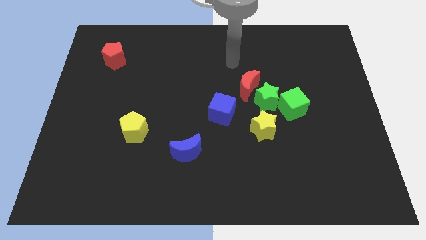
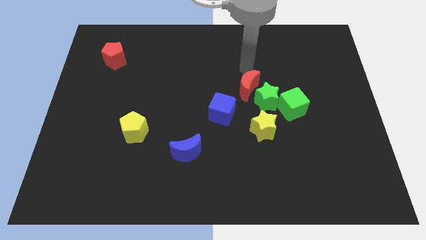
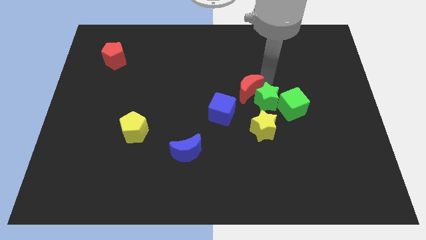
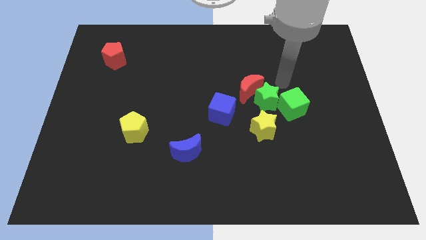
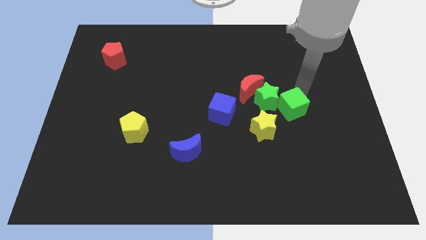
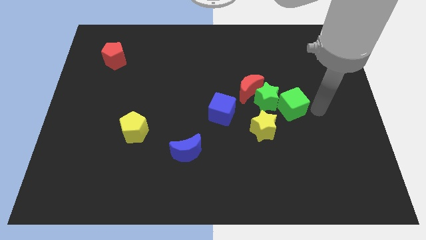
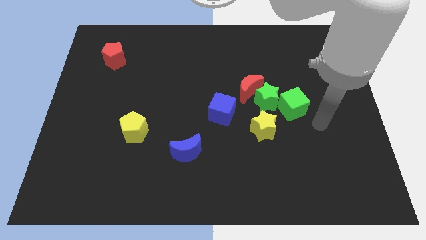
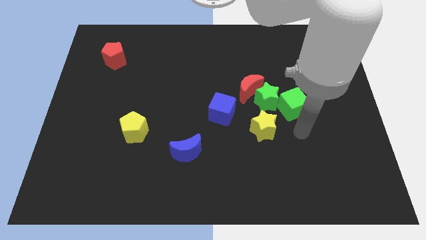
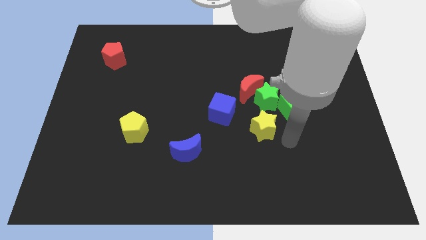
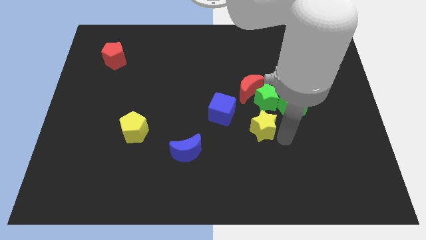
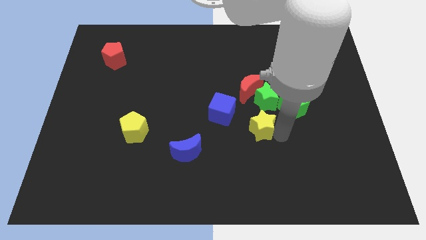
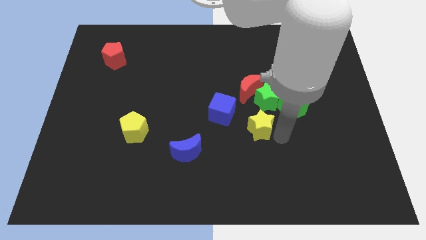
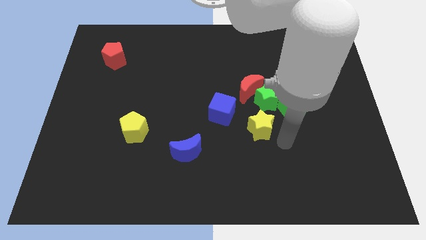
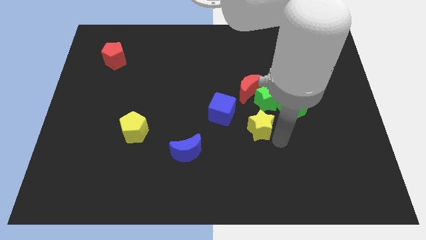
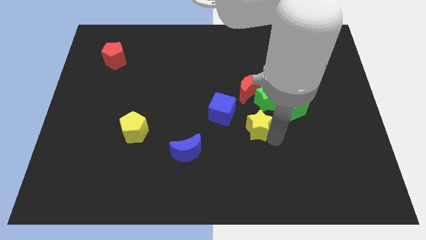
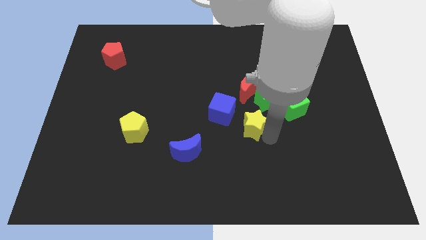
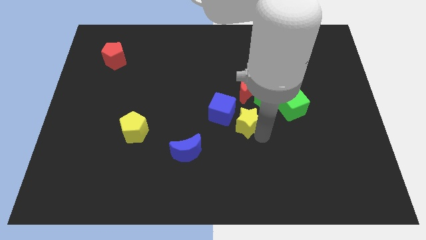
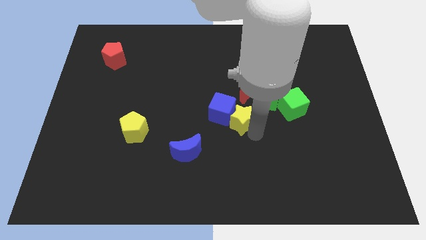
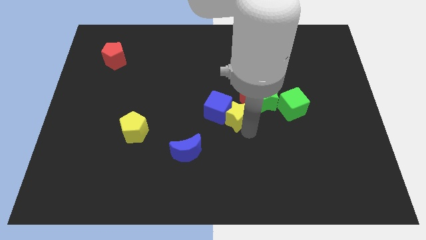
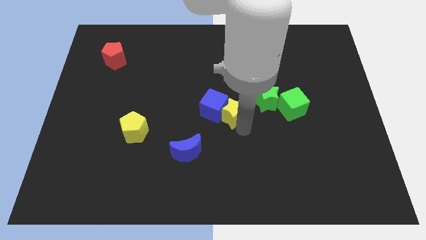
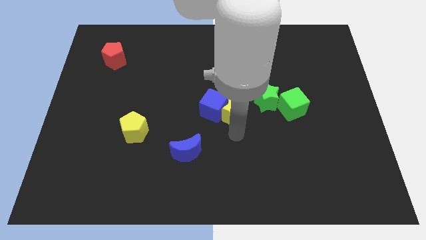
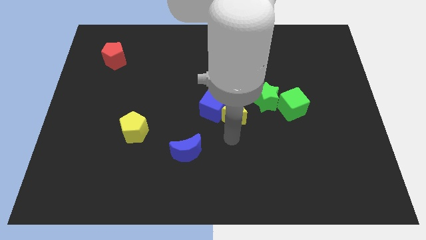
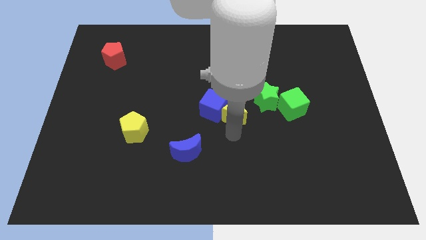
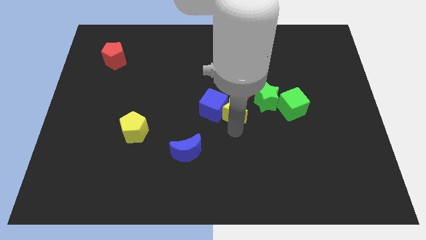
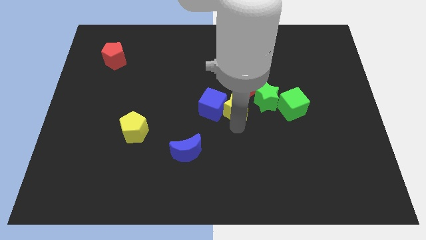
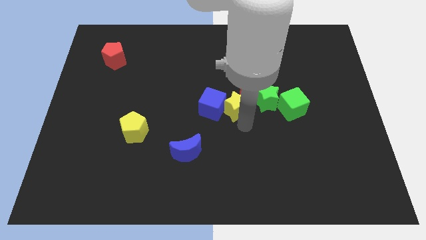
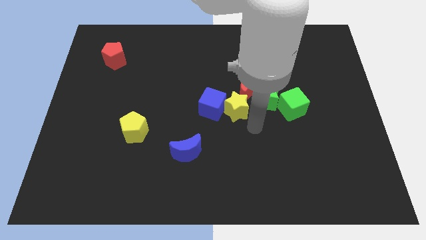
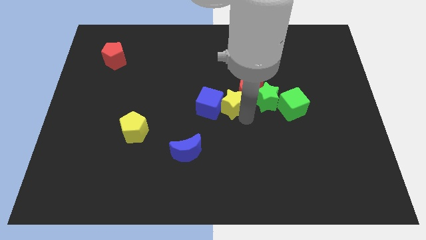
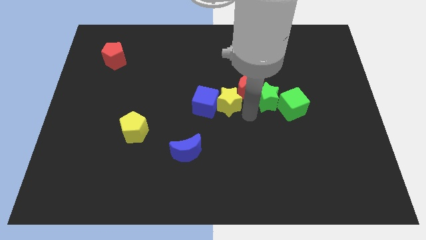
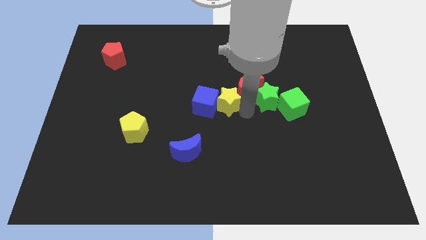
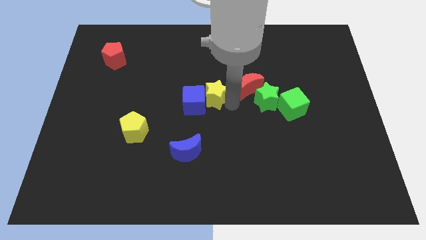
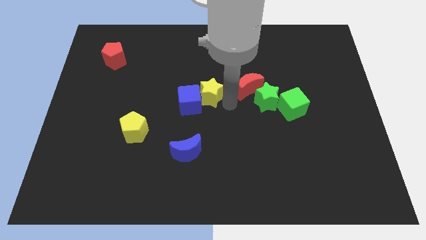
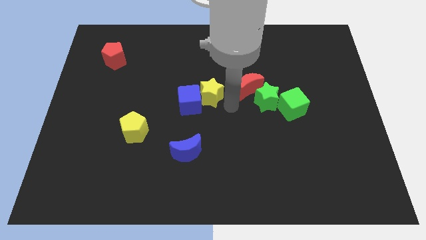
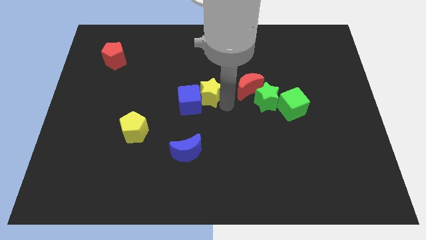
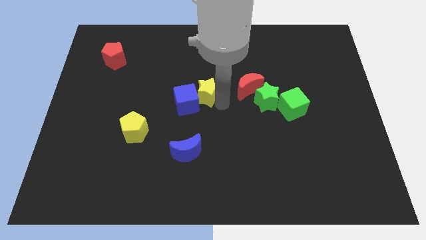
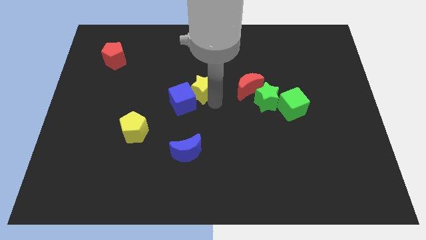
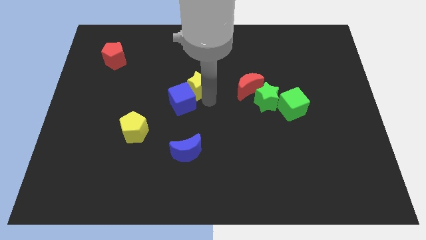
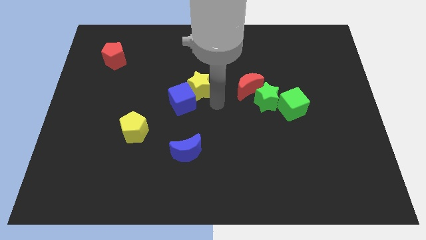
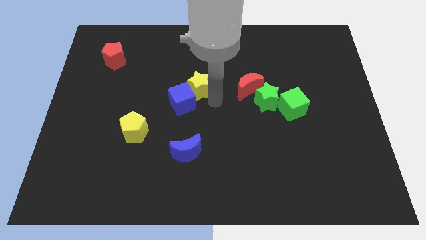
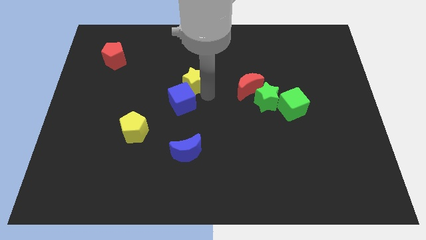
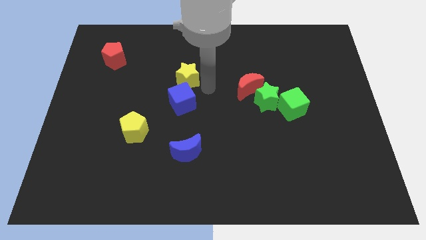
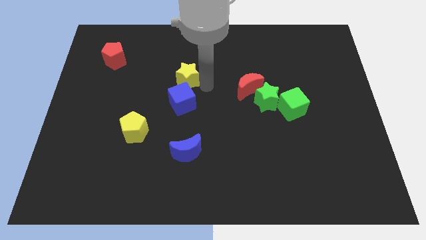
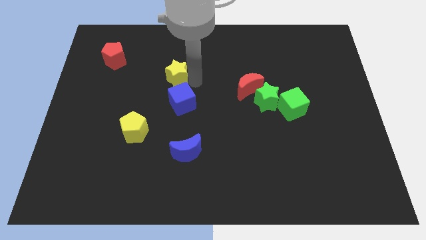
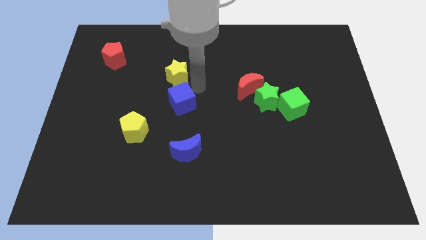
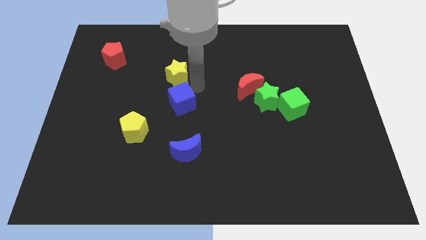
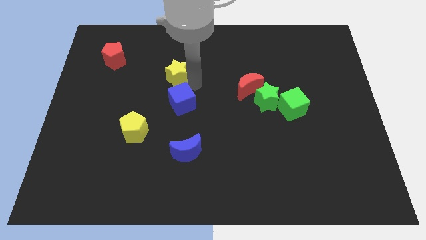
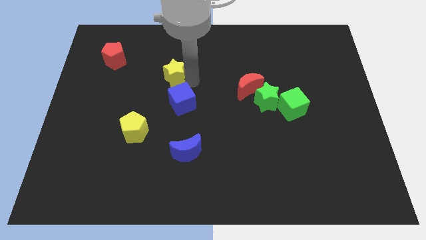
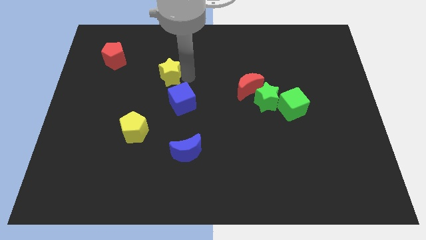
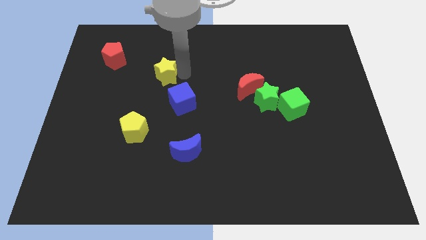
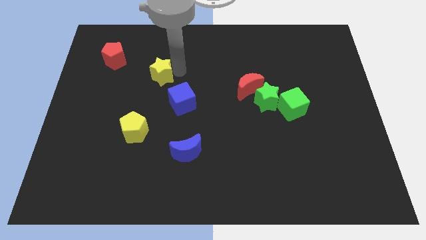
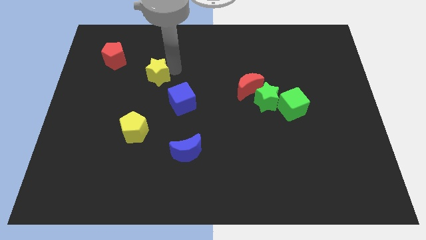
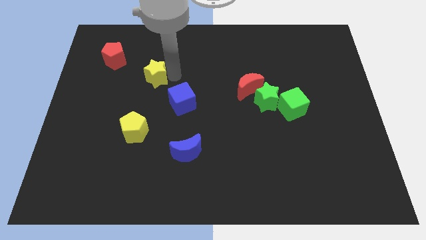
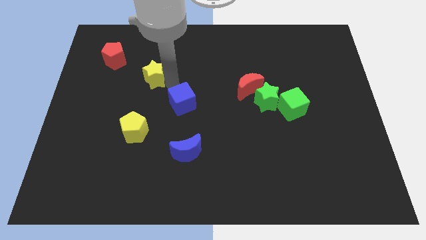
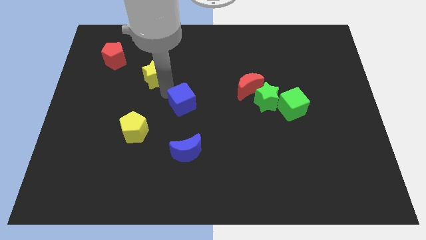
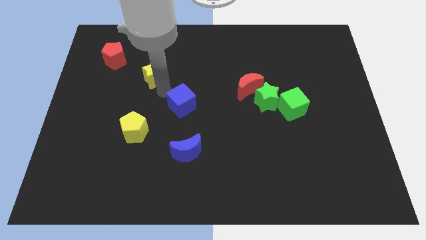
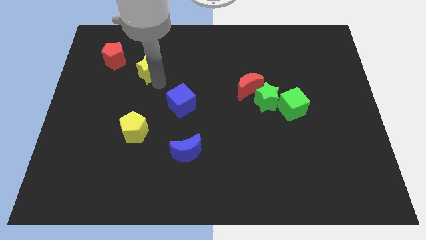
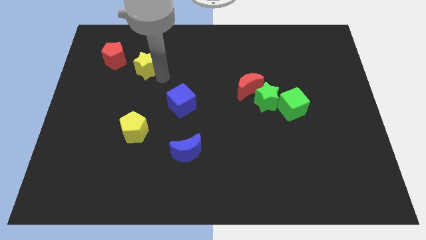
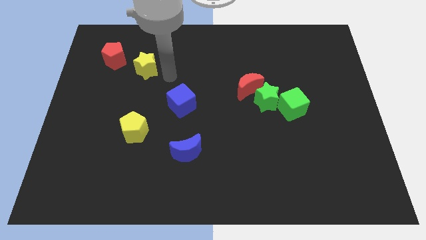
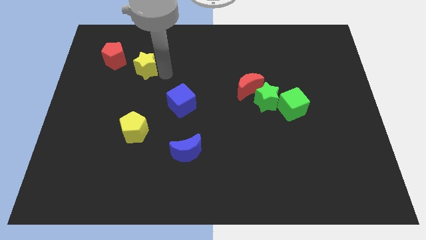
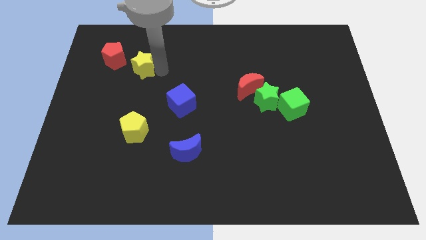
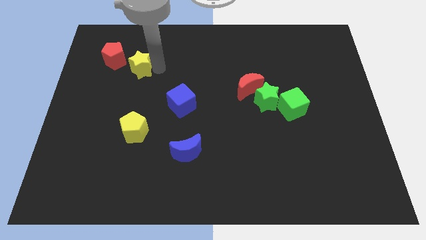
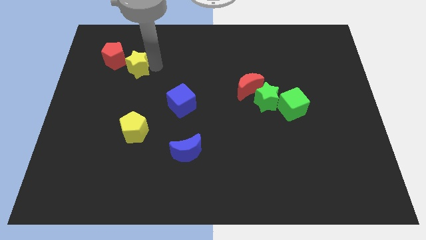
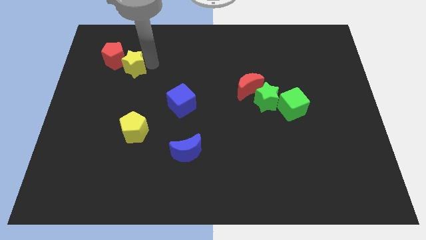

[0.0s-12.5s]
put the yellow star close to the red pentagon

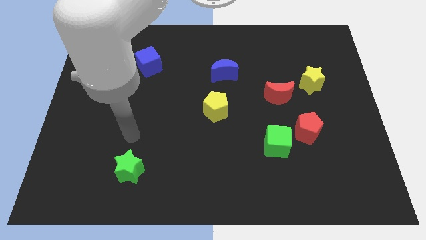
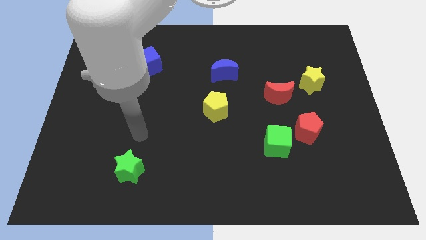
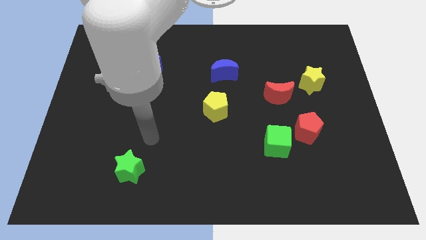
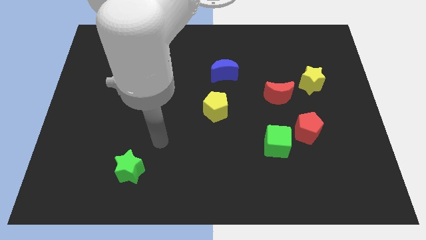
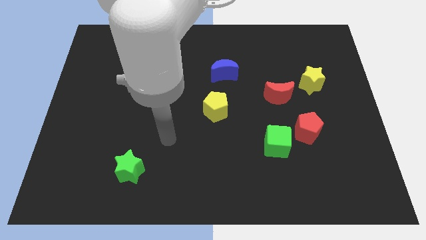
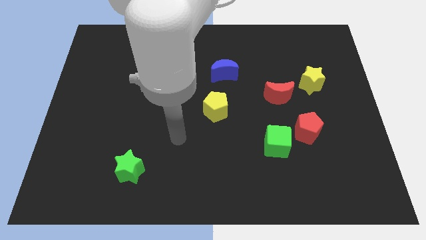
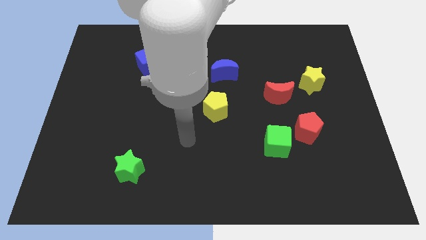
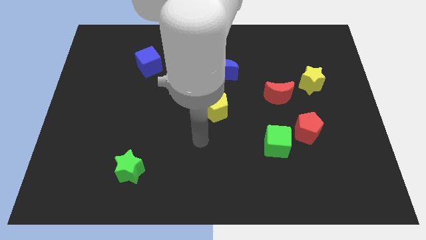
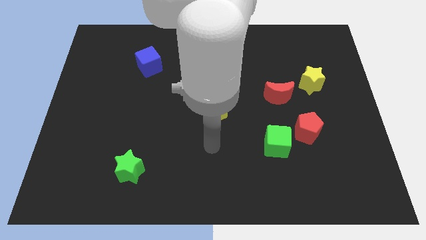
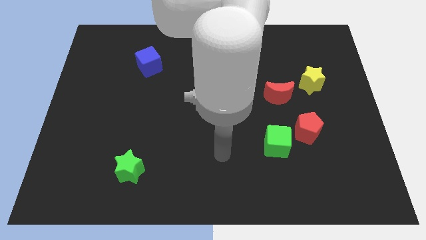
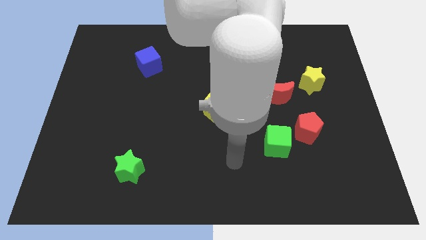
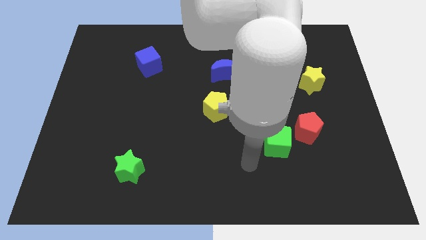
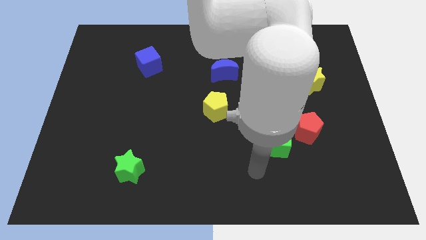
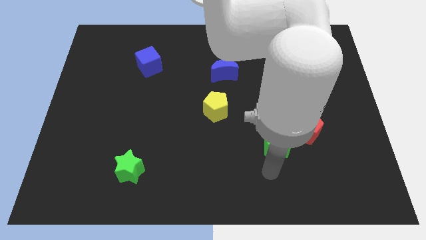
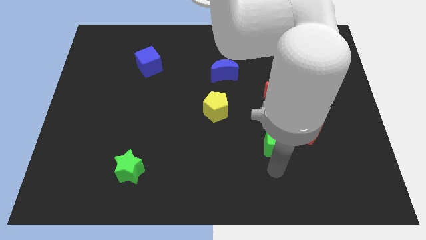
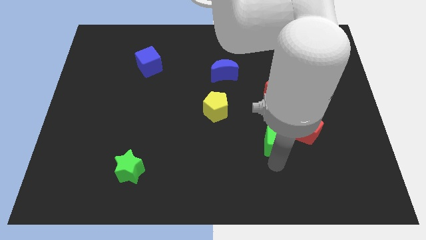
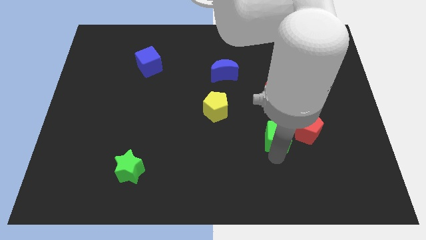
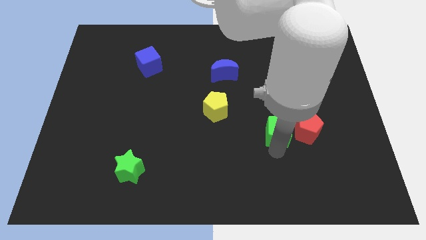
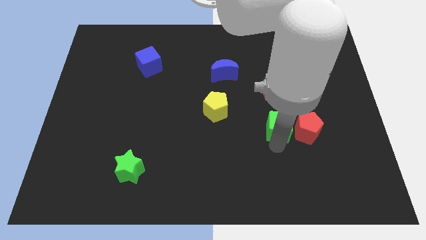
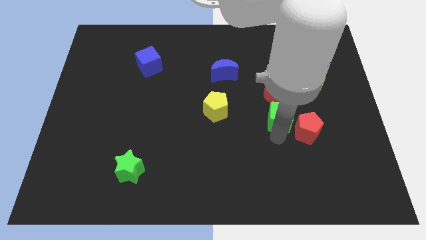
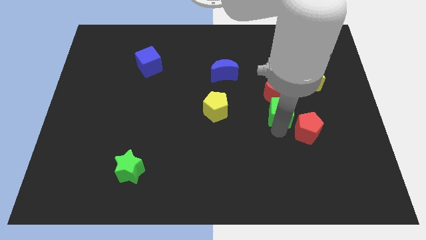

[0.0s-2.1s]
move the green cube next to the red moon
